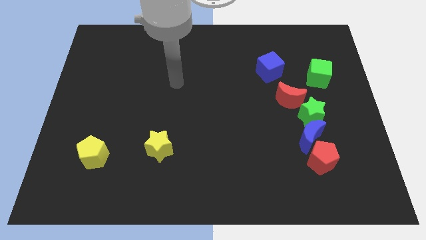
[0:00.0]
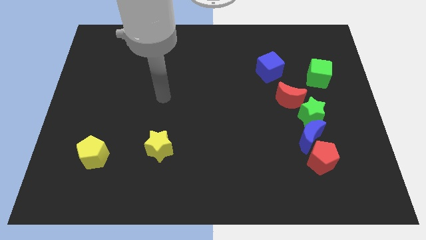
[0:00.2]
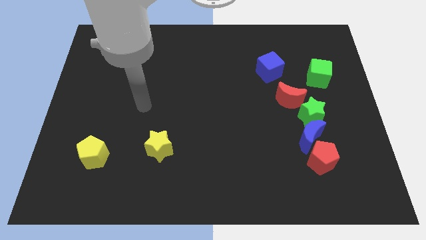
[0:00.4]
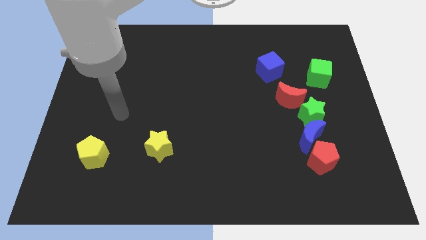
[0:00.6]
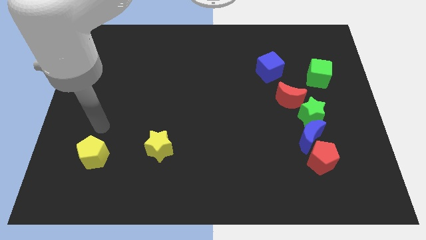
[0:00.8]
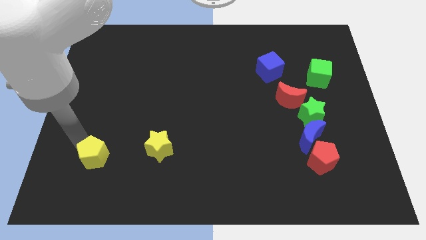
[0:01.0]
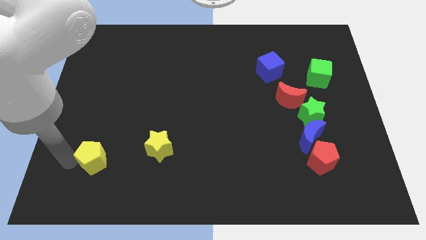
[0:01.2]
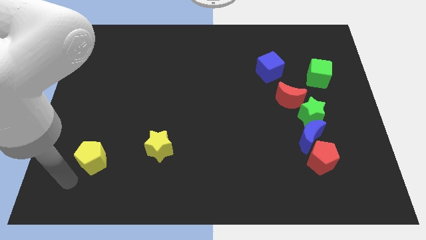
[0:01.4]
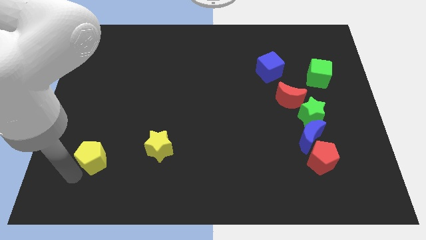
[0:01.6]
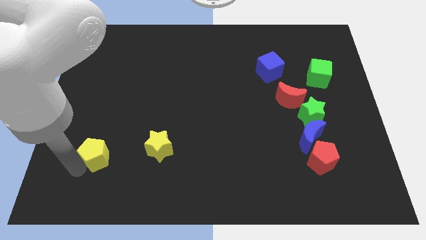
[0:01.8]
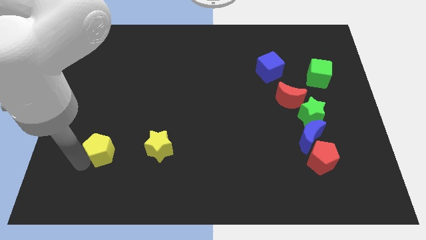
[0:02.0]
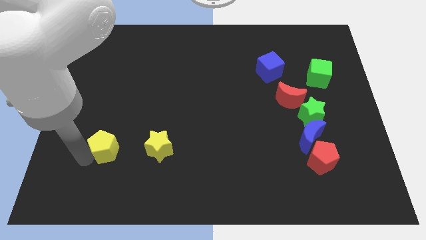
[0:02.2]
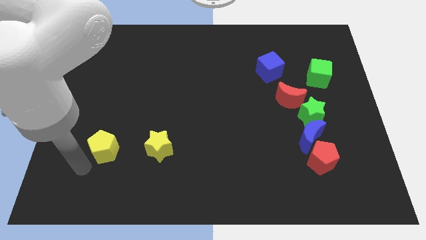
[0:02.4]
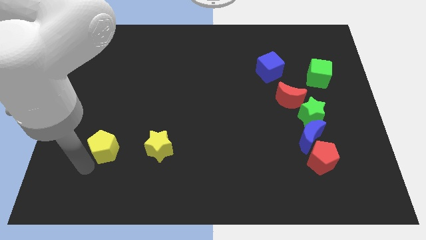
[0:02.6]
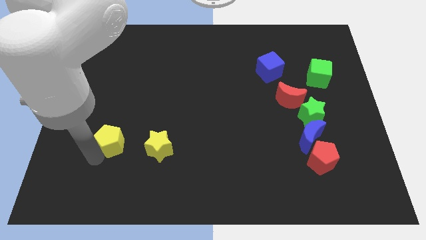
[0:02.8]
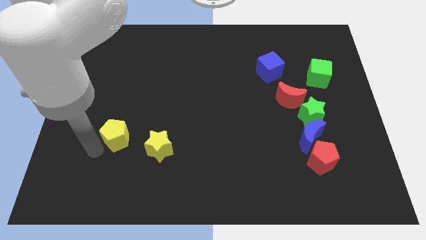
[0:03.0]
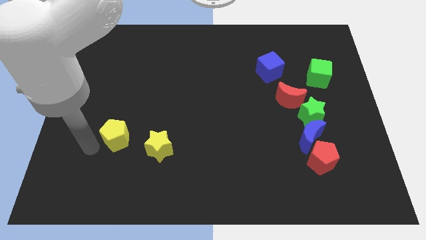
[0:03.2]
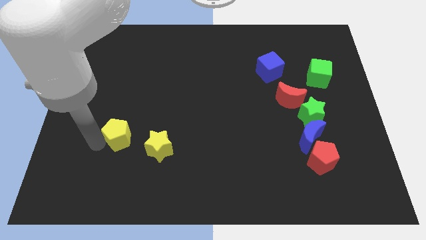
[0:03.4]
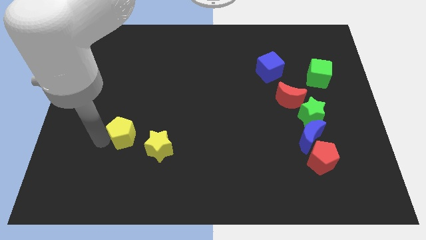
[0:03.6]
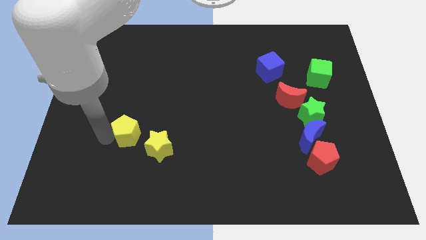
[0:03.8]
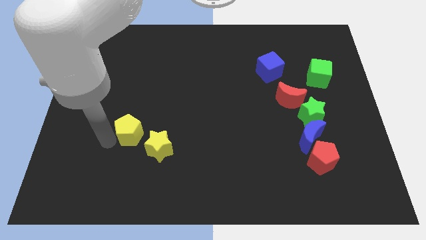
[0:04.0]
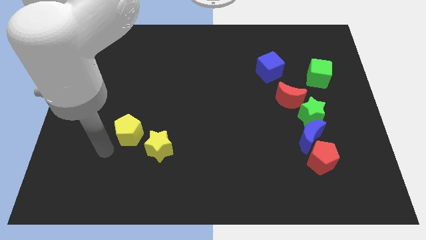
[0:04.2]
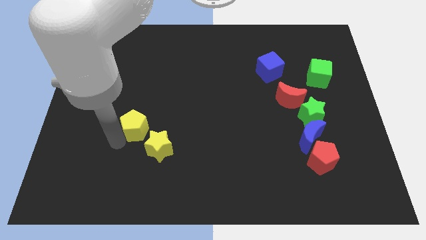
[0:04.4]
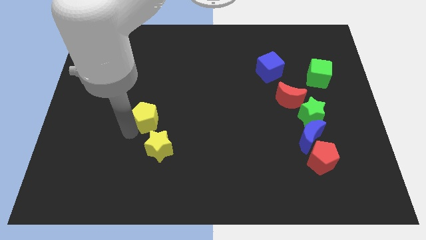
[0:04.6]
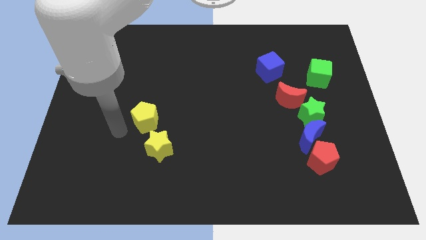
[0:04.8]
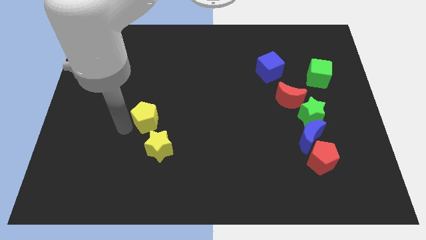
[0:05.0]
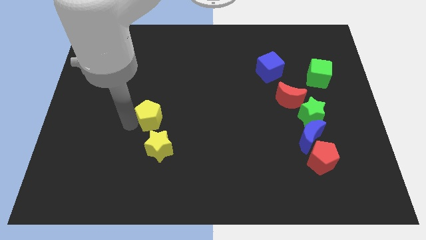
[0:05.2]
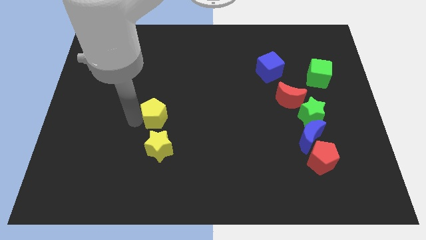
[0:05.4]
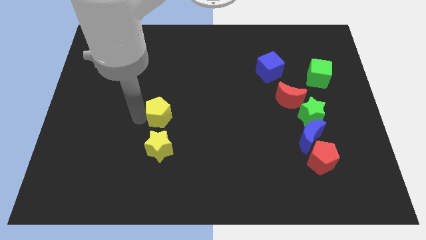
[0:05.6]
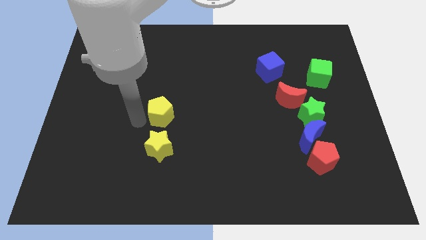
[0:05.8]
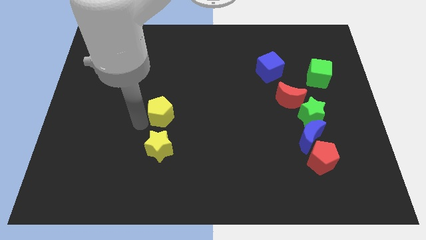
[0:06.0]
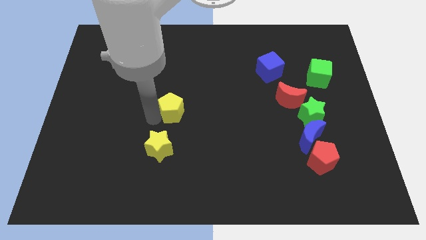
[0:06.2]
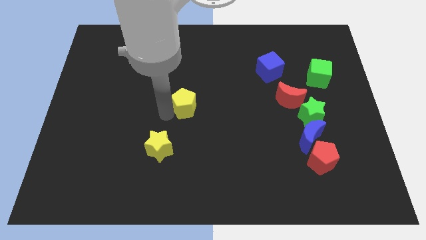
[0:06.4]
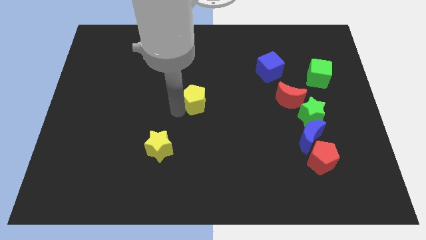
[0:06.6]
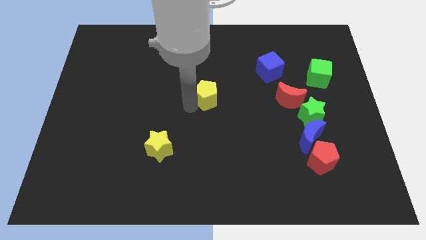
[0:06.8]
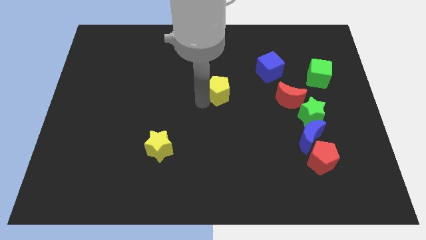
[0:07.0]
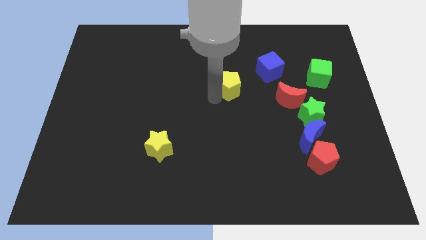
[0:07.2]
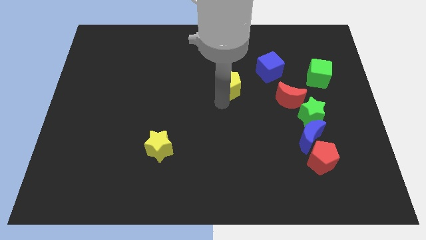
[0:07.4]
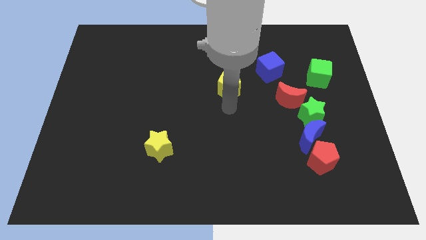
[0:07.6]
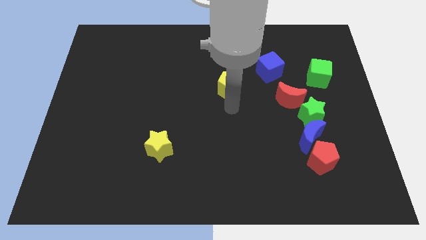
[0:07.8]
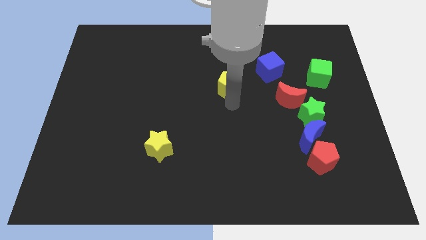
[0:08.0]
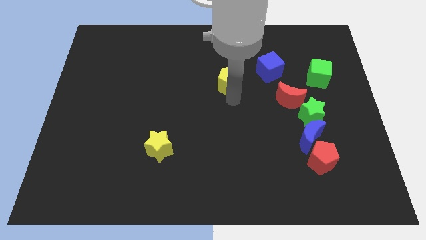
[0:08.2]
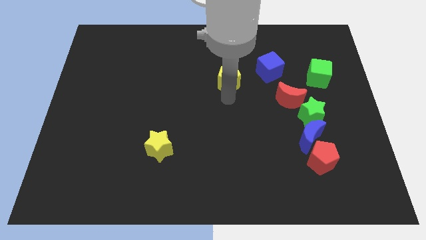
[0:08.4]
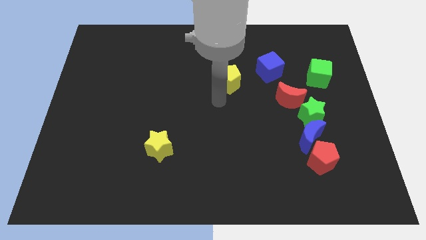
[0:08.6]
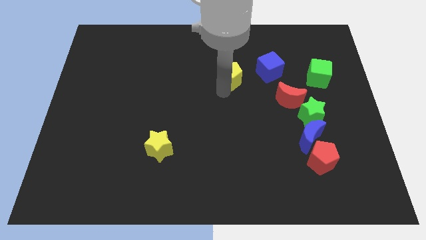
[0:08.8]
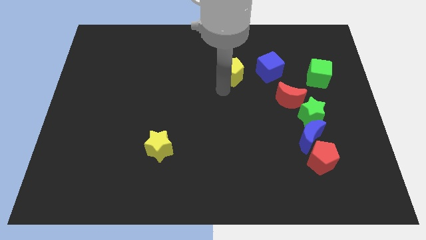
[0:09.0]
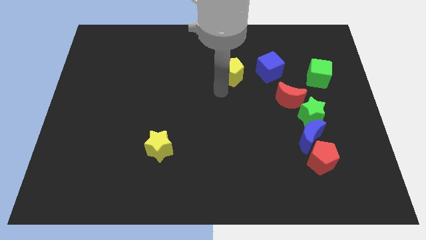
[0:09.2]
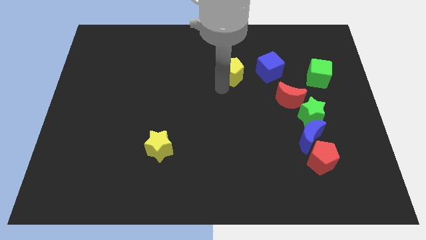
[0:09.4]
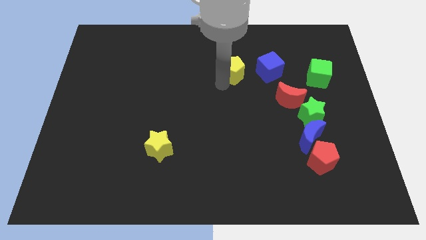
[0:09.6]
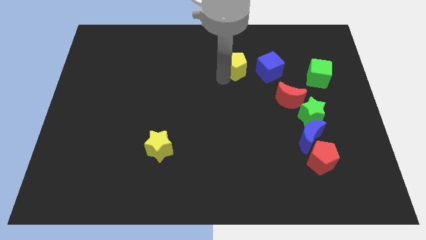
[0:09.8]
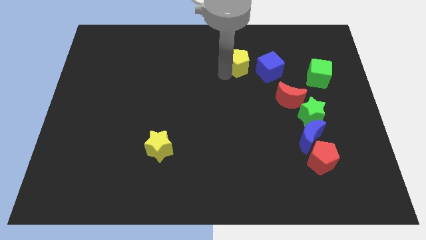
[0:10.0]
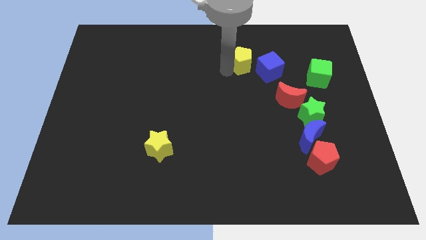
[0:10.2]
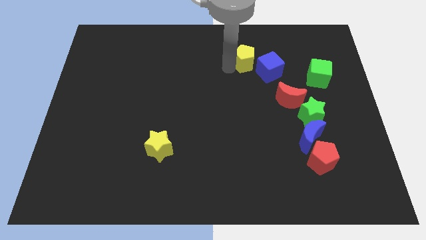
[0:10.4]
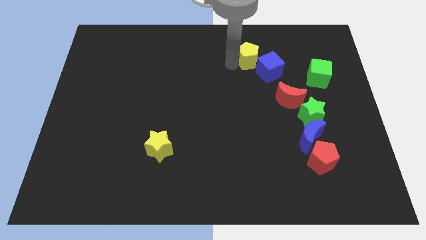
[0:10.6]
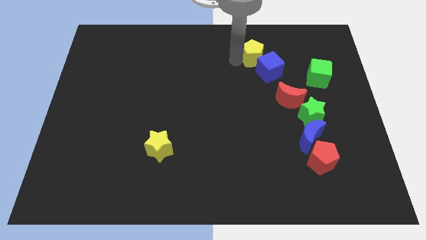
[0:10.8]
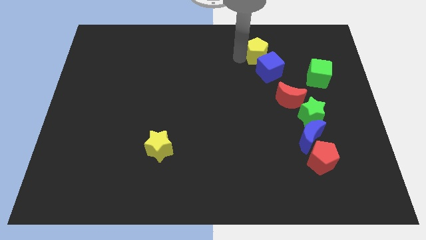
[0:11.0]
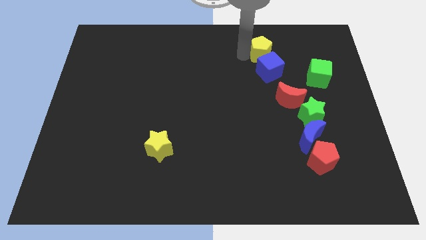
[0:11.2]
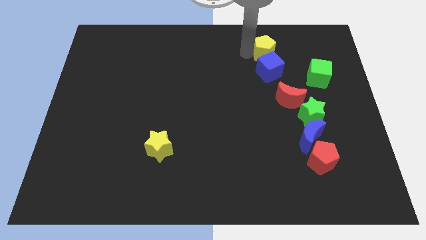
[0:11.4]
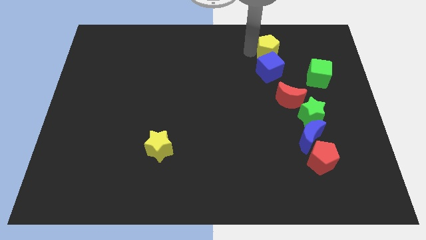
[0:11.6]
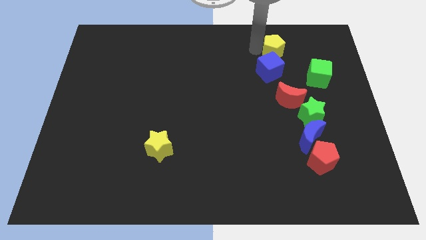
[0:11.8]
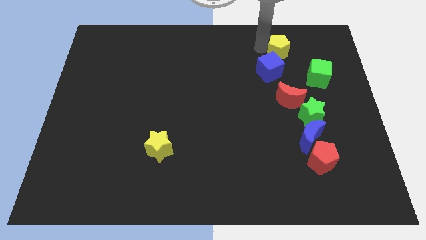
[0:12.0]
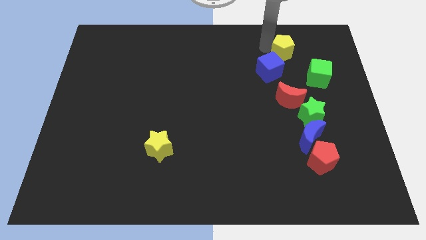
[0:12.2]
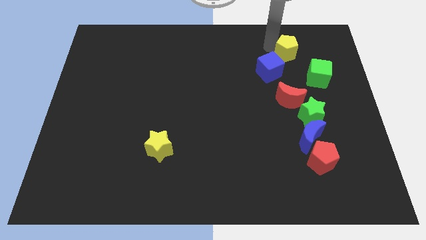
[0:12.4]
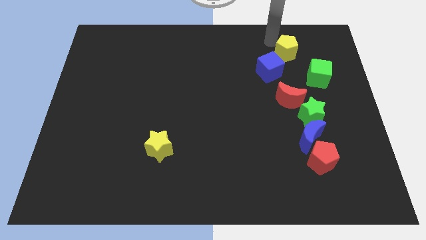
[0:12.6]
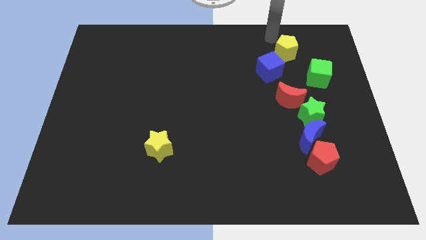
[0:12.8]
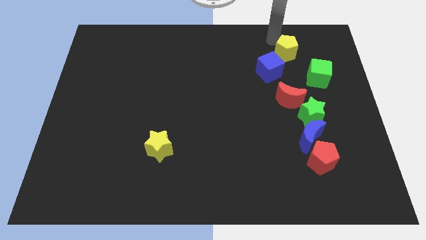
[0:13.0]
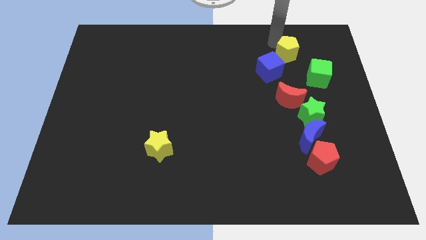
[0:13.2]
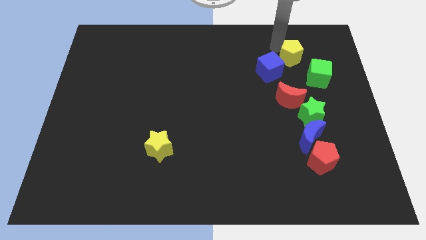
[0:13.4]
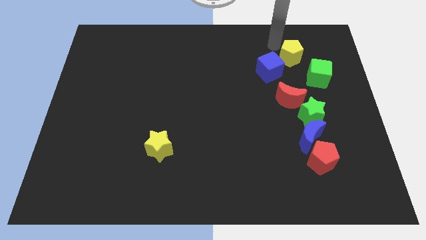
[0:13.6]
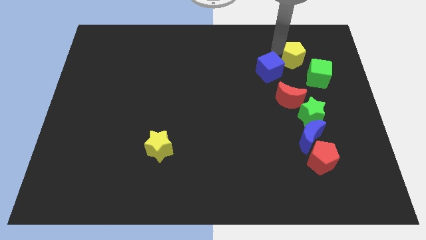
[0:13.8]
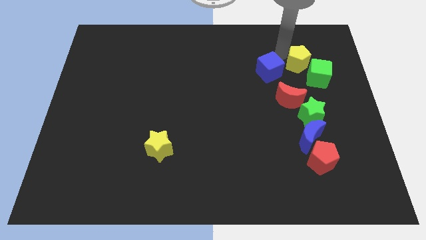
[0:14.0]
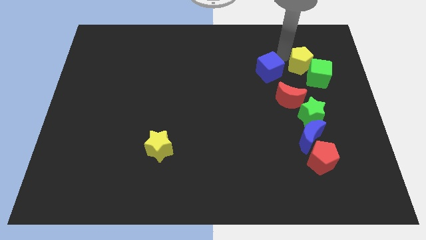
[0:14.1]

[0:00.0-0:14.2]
move the yellow pentagon next to the green cube

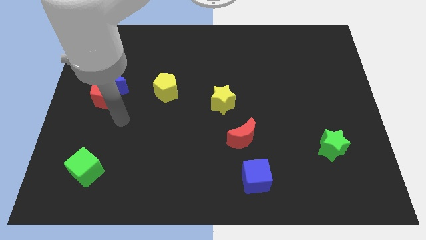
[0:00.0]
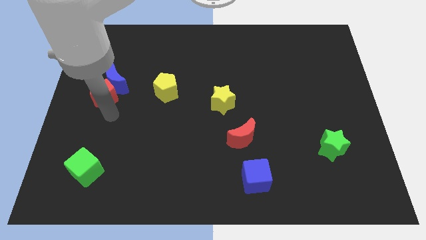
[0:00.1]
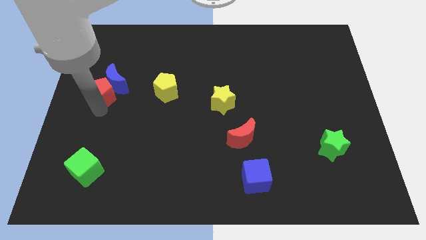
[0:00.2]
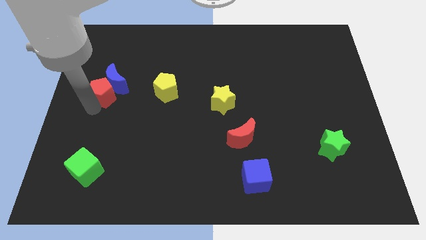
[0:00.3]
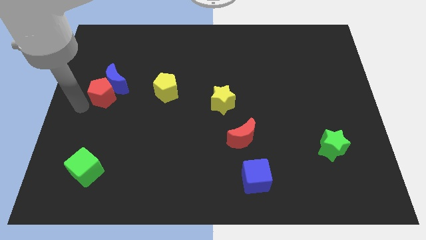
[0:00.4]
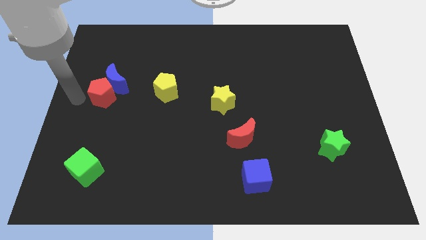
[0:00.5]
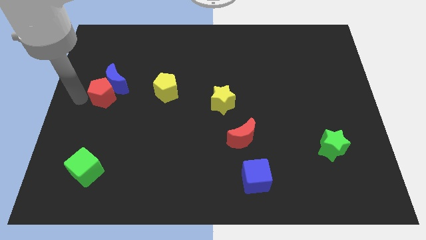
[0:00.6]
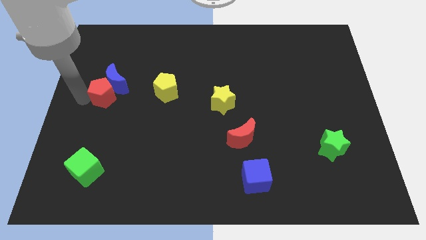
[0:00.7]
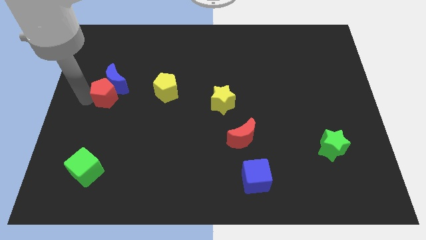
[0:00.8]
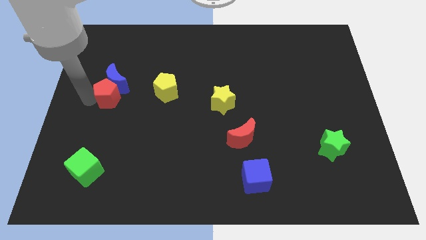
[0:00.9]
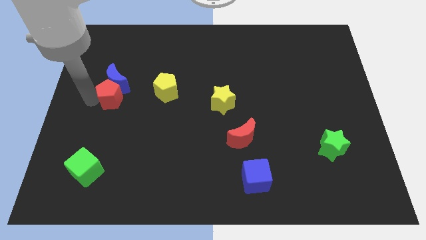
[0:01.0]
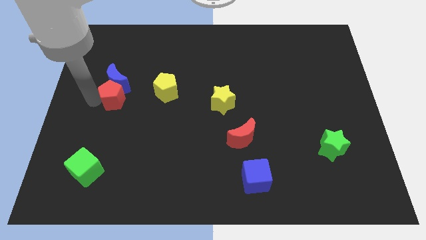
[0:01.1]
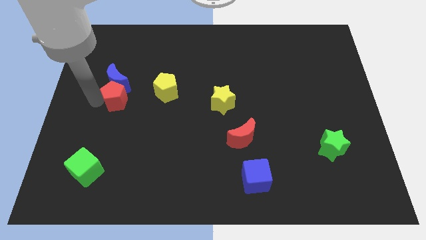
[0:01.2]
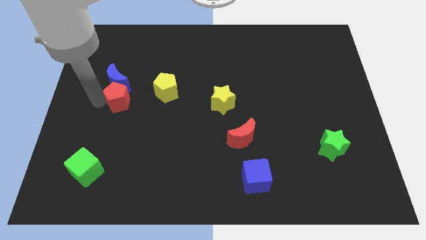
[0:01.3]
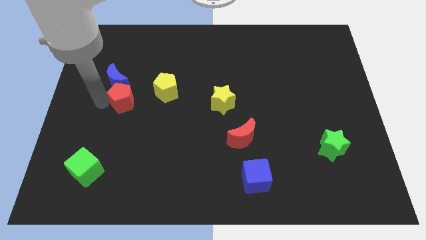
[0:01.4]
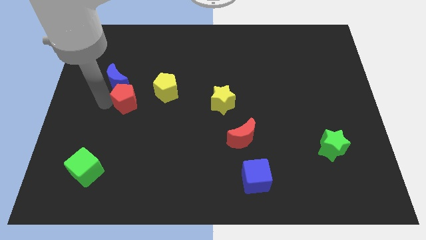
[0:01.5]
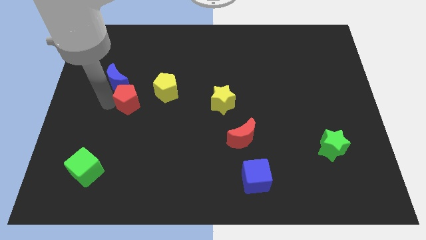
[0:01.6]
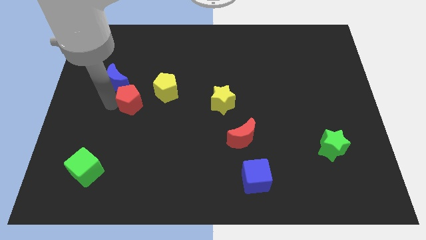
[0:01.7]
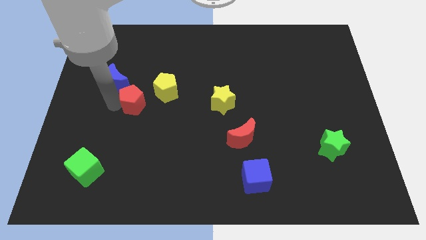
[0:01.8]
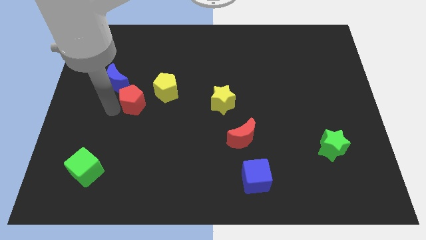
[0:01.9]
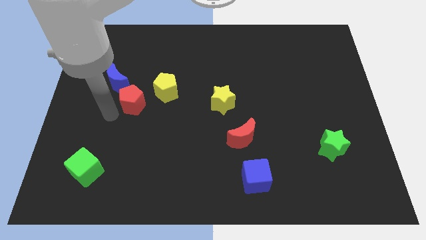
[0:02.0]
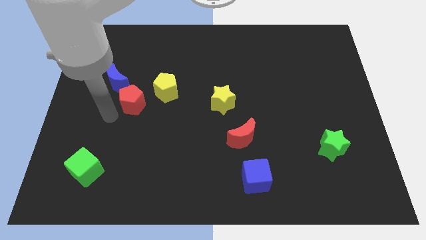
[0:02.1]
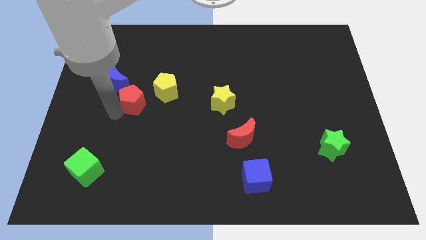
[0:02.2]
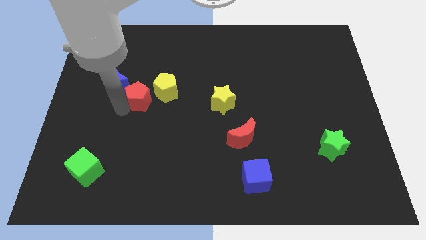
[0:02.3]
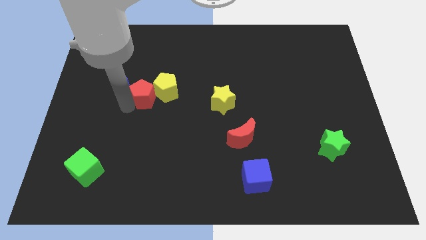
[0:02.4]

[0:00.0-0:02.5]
push the red pentagon close to the yellow pentagon
